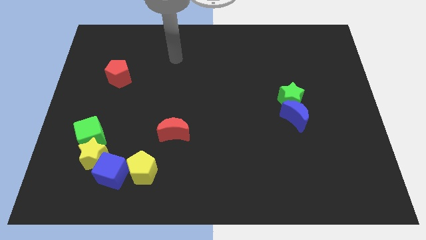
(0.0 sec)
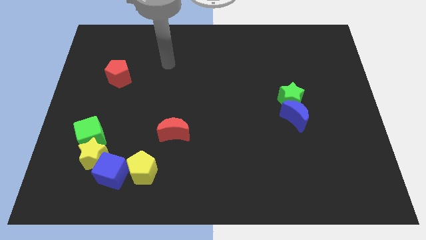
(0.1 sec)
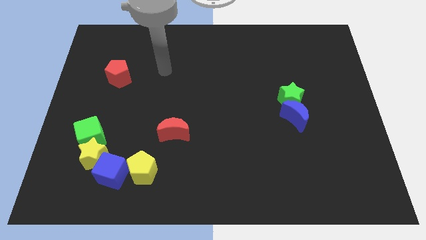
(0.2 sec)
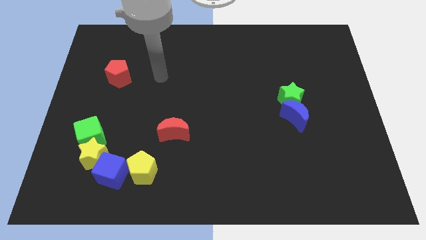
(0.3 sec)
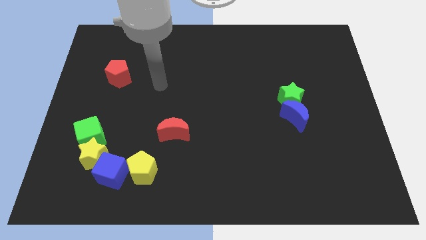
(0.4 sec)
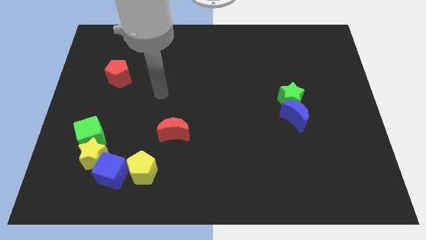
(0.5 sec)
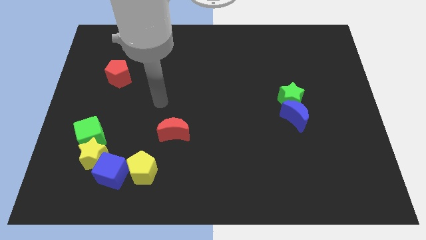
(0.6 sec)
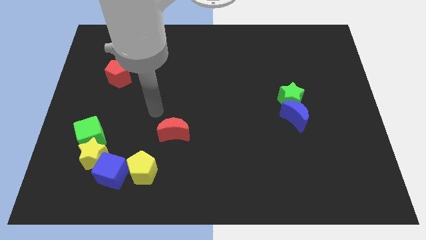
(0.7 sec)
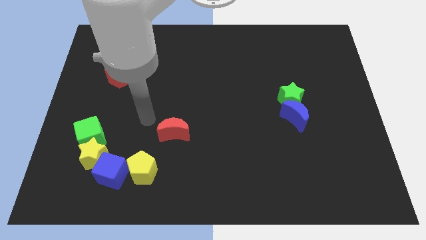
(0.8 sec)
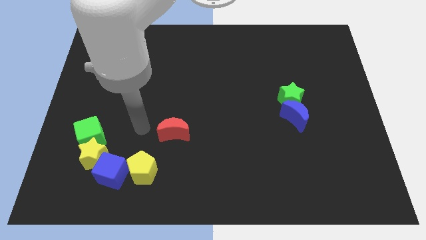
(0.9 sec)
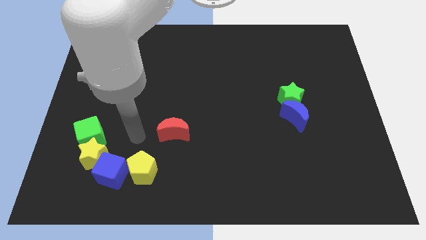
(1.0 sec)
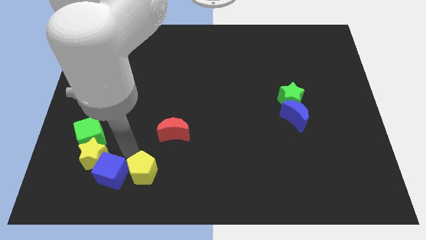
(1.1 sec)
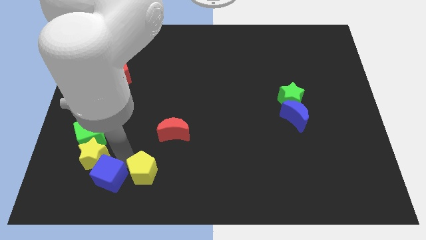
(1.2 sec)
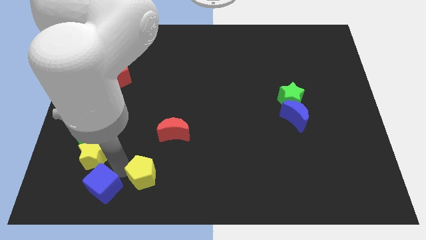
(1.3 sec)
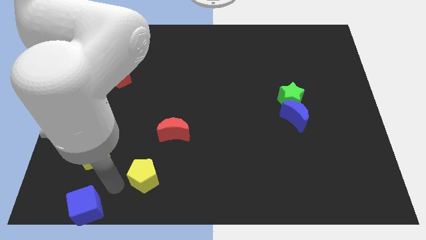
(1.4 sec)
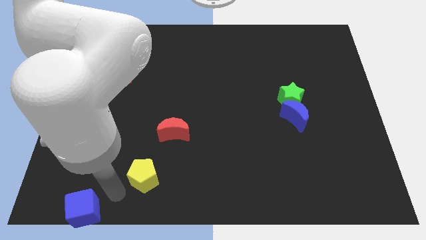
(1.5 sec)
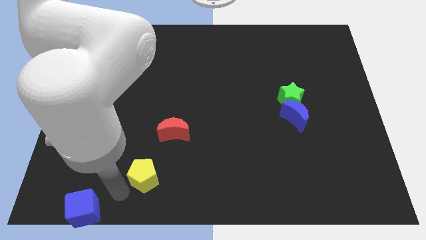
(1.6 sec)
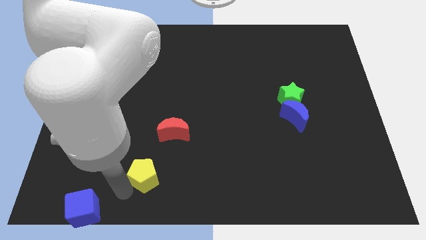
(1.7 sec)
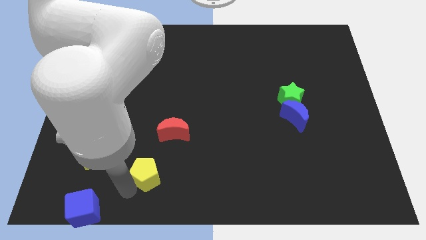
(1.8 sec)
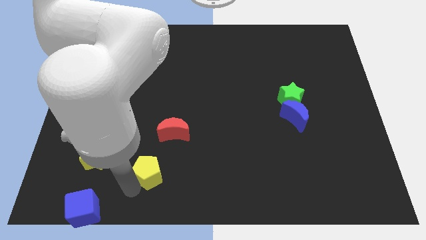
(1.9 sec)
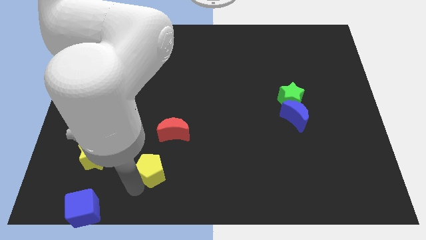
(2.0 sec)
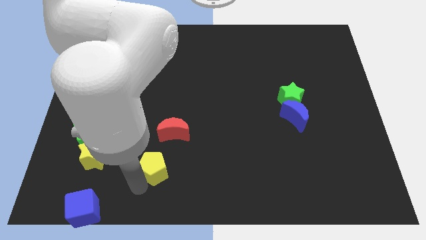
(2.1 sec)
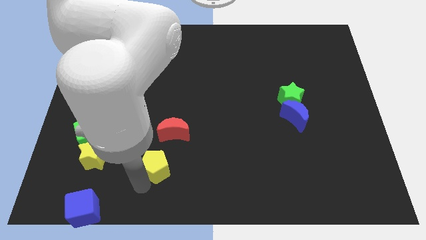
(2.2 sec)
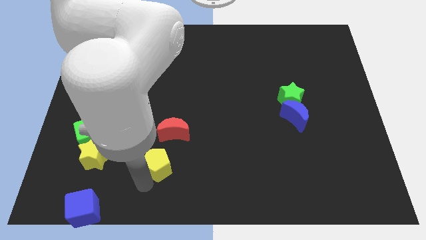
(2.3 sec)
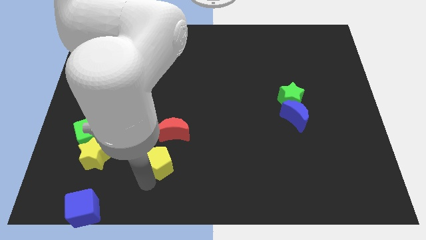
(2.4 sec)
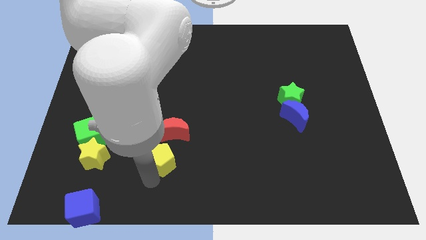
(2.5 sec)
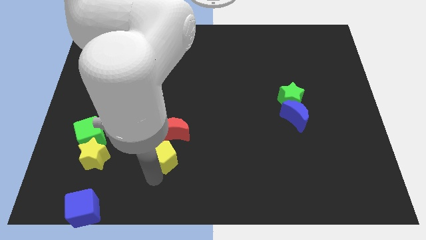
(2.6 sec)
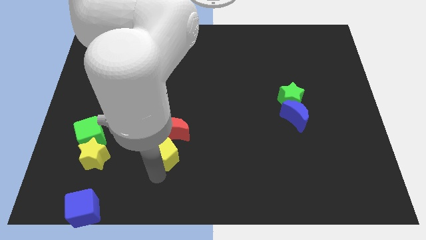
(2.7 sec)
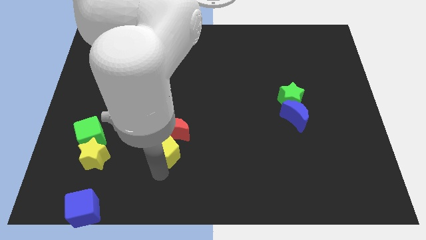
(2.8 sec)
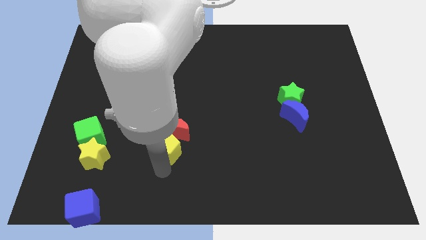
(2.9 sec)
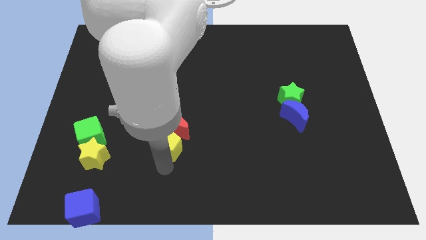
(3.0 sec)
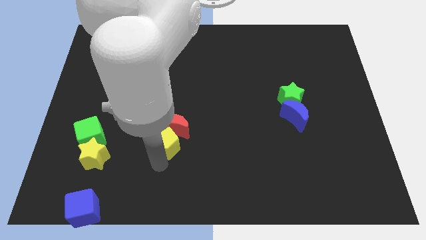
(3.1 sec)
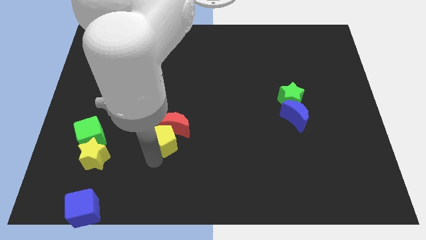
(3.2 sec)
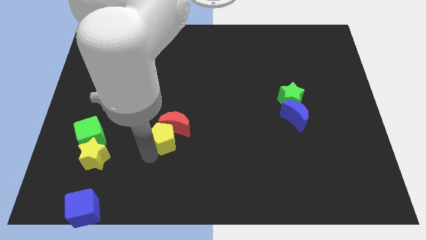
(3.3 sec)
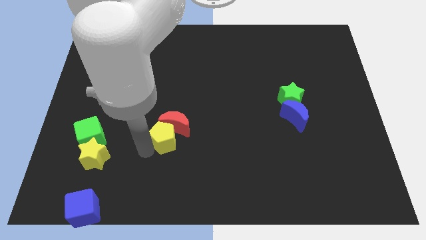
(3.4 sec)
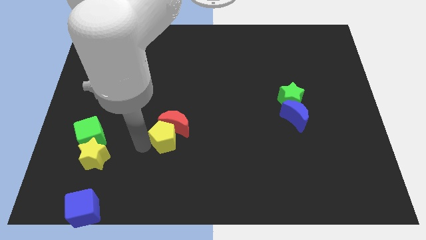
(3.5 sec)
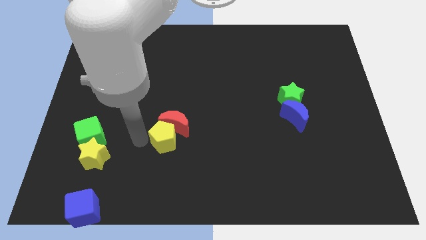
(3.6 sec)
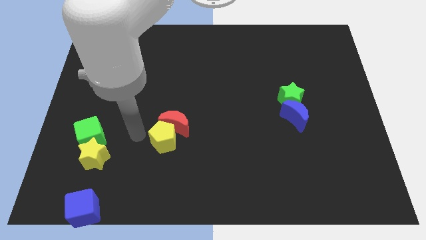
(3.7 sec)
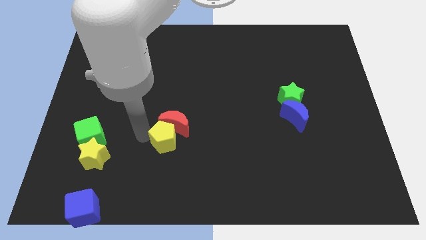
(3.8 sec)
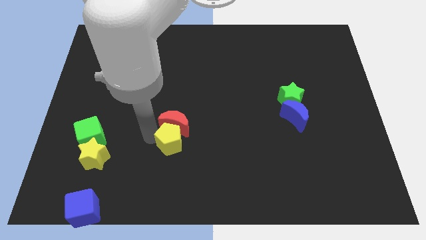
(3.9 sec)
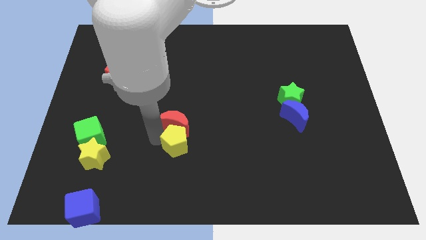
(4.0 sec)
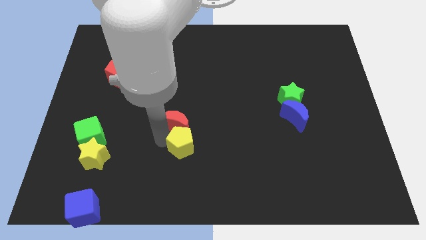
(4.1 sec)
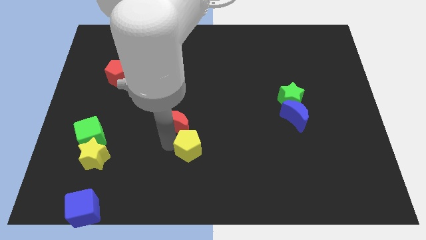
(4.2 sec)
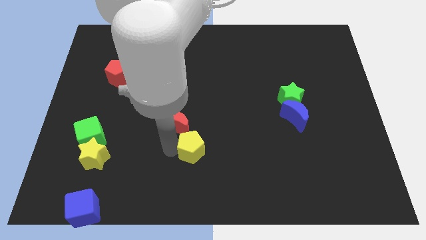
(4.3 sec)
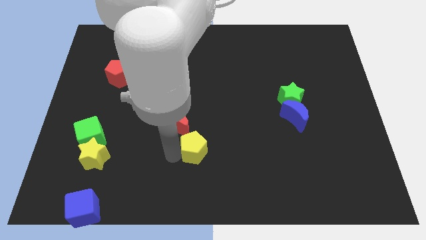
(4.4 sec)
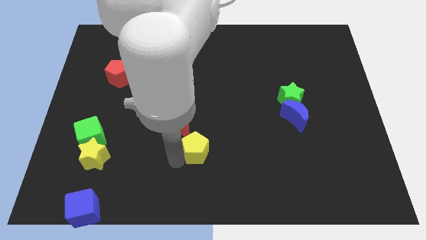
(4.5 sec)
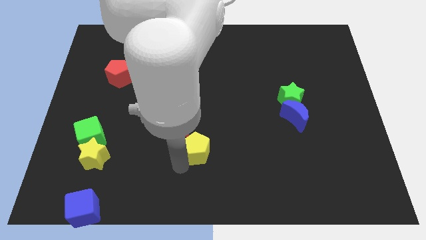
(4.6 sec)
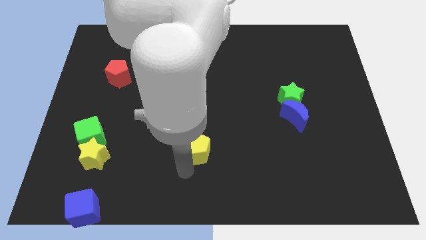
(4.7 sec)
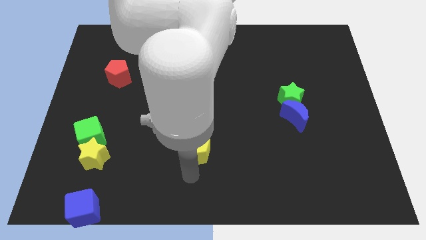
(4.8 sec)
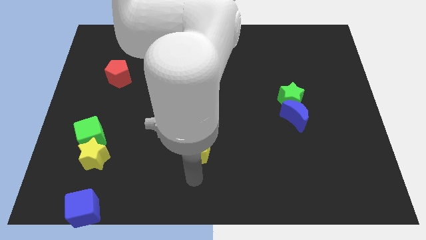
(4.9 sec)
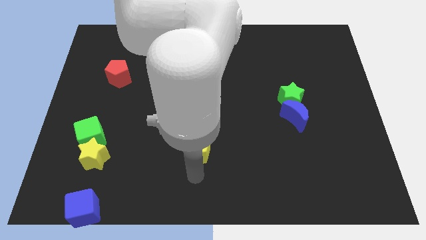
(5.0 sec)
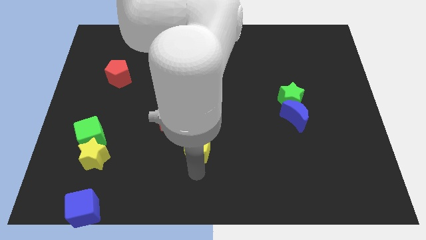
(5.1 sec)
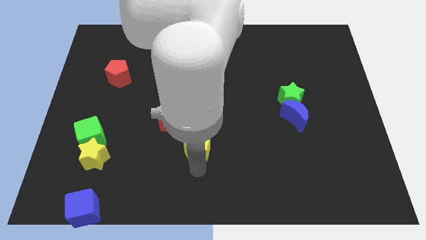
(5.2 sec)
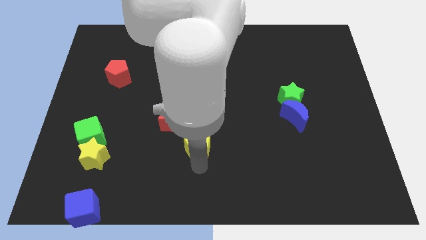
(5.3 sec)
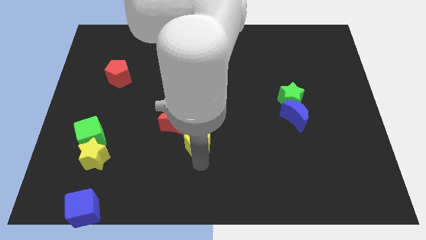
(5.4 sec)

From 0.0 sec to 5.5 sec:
move the yellow pentagon to the center of the board

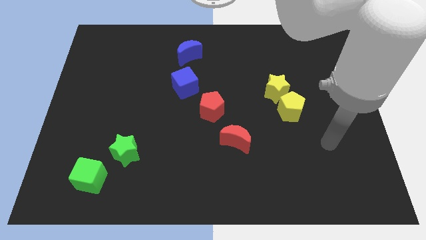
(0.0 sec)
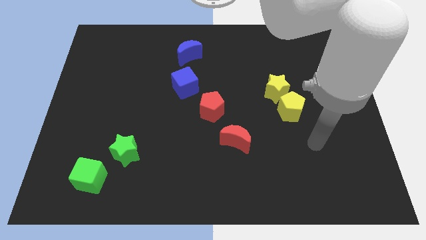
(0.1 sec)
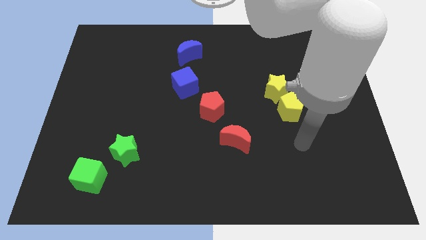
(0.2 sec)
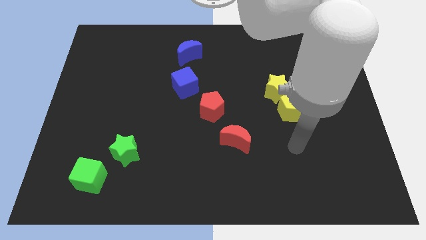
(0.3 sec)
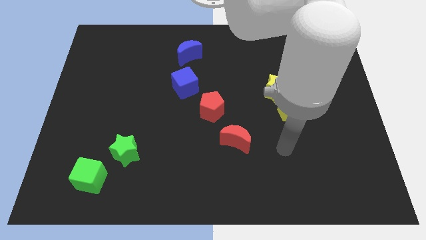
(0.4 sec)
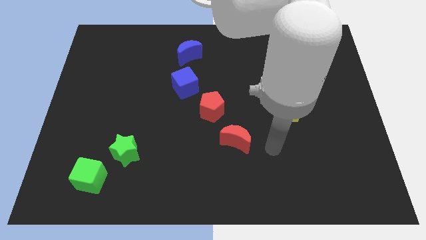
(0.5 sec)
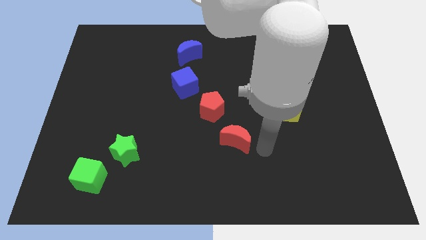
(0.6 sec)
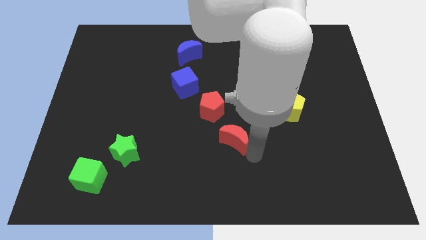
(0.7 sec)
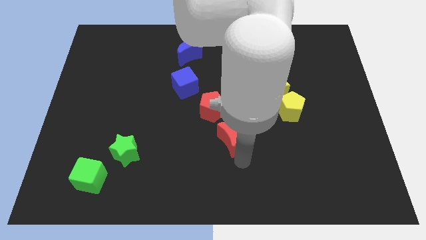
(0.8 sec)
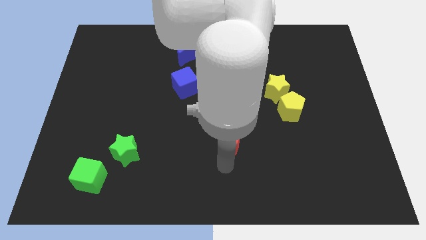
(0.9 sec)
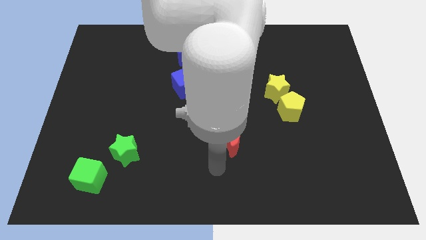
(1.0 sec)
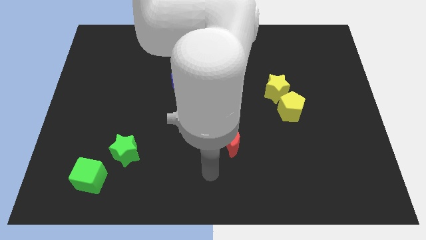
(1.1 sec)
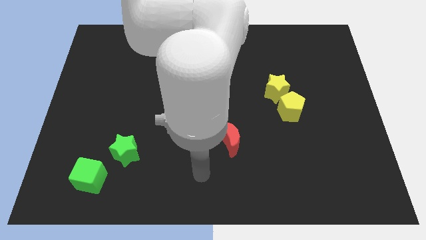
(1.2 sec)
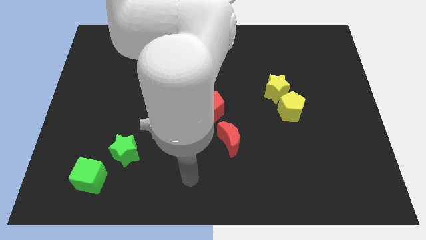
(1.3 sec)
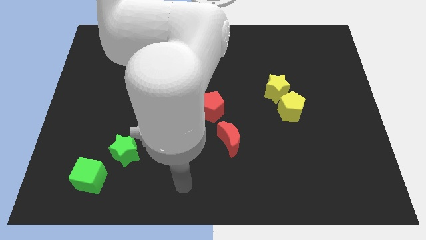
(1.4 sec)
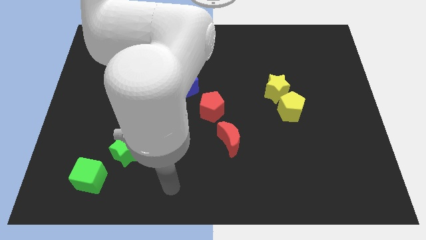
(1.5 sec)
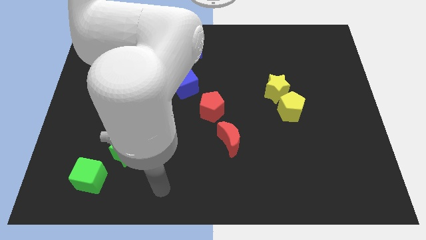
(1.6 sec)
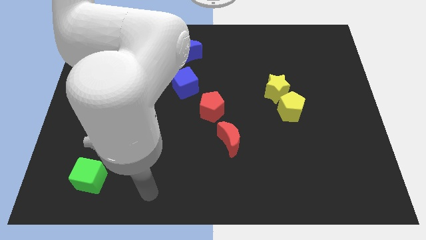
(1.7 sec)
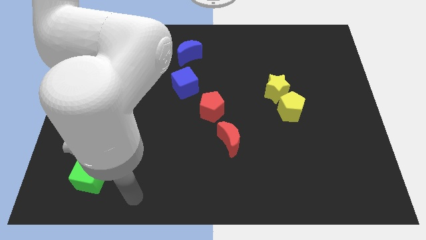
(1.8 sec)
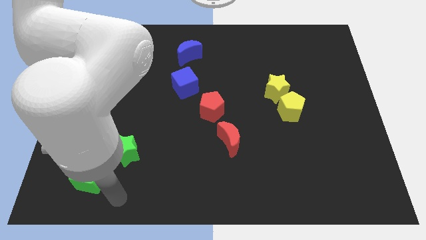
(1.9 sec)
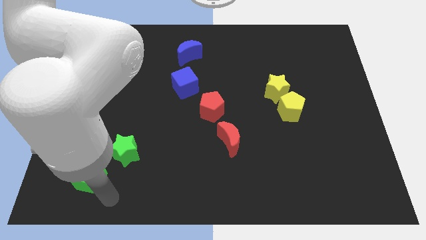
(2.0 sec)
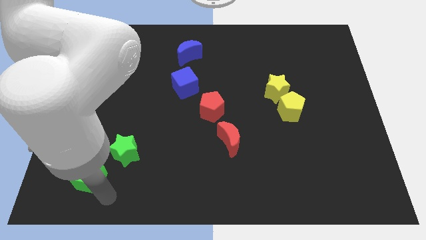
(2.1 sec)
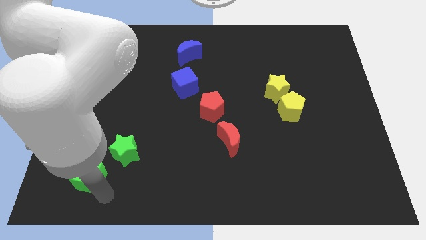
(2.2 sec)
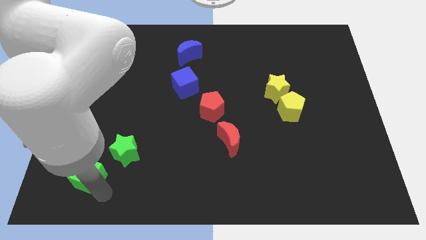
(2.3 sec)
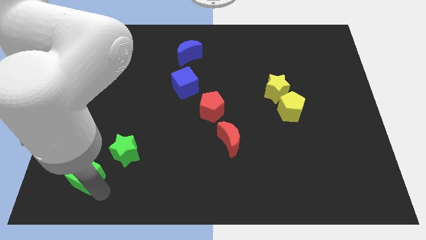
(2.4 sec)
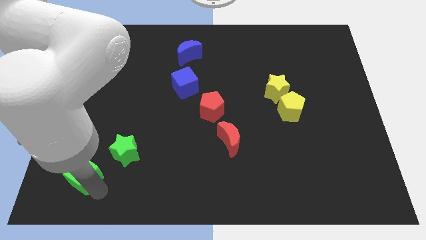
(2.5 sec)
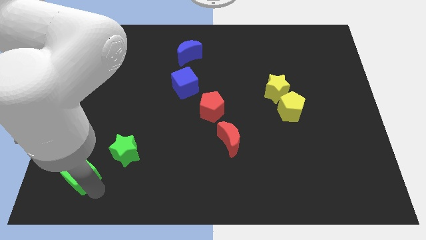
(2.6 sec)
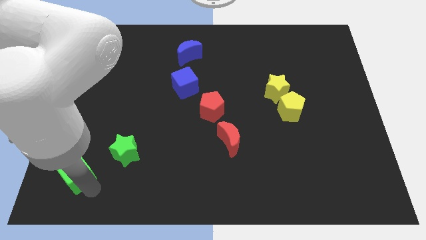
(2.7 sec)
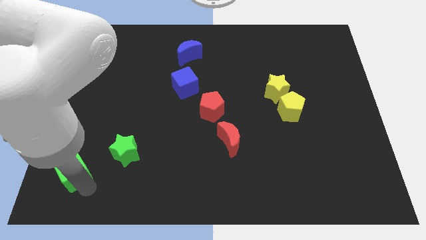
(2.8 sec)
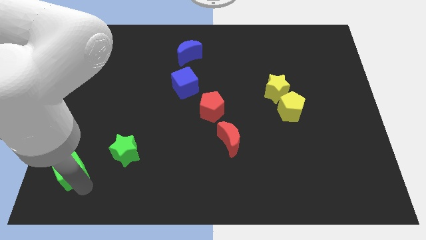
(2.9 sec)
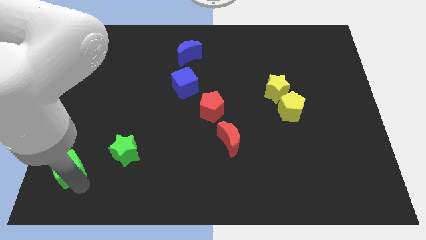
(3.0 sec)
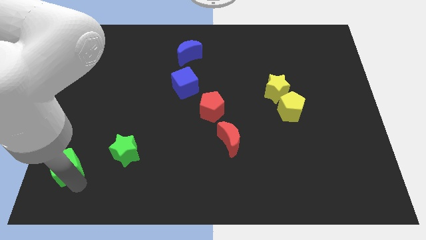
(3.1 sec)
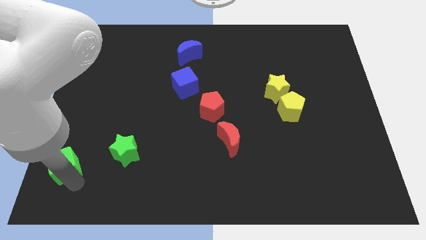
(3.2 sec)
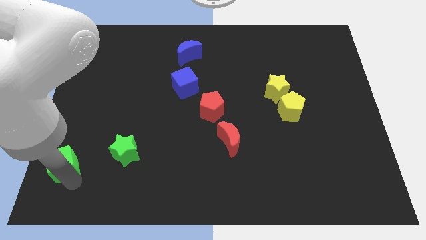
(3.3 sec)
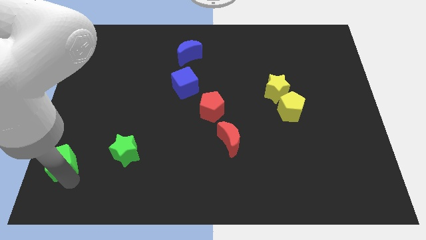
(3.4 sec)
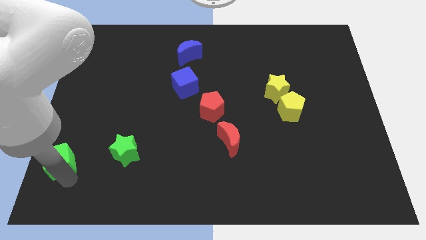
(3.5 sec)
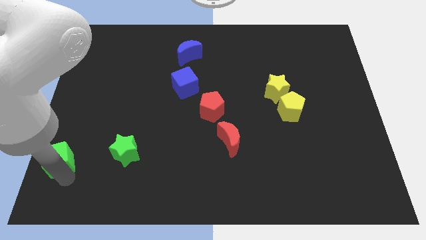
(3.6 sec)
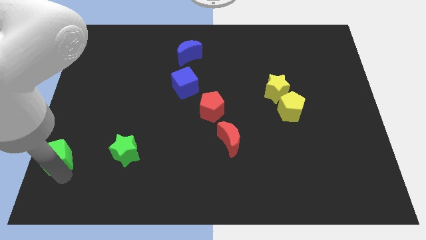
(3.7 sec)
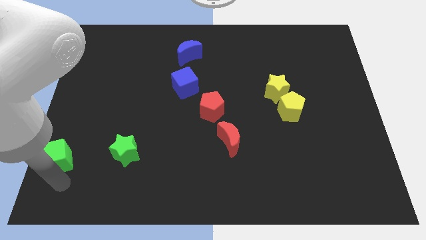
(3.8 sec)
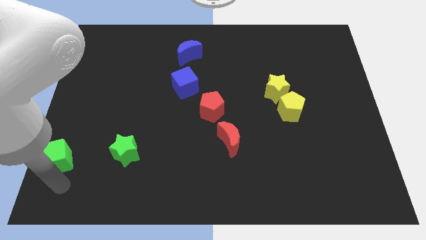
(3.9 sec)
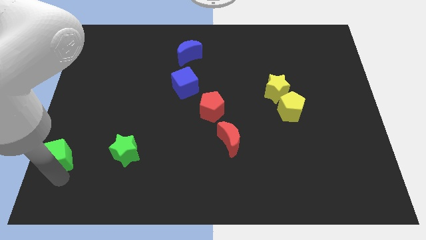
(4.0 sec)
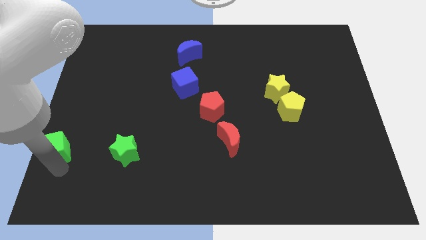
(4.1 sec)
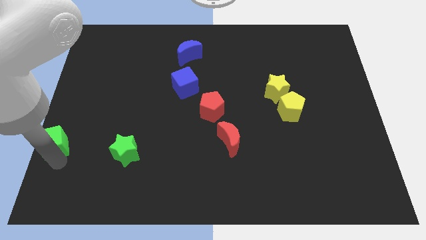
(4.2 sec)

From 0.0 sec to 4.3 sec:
put the green cube to the left side
